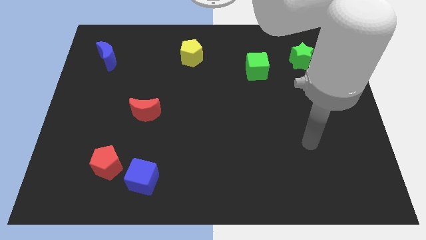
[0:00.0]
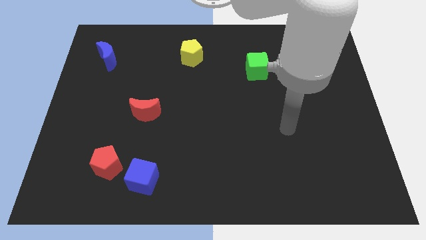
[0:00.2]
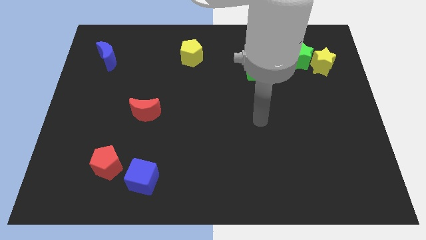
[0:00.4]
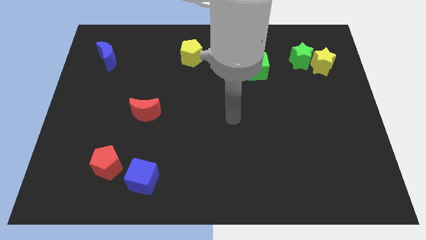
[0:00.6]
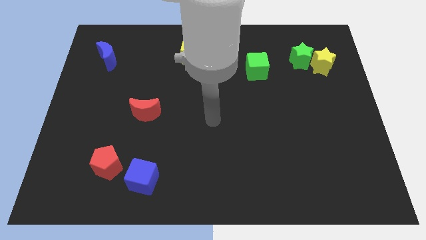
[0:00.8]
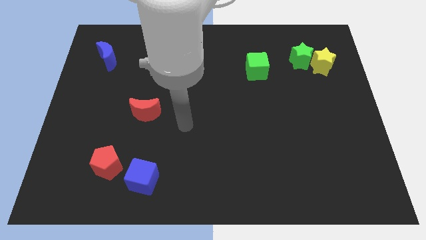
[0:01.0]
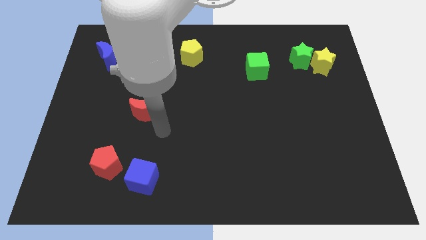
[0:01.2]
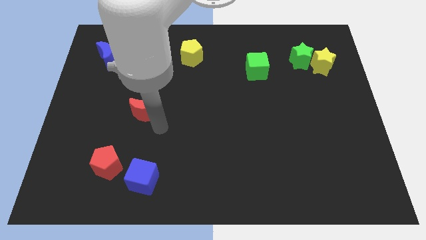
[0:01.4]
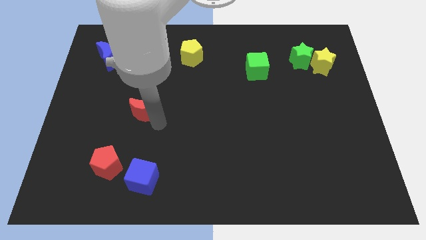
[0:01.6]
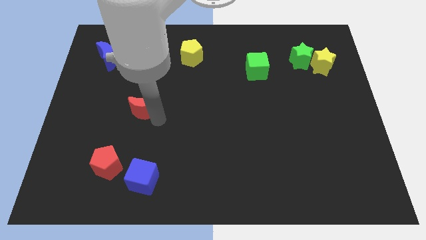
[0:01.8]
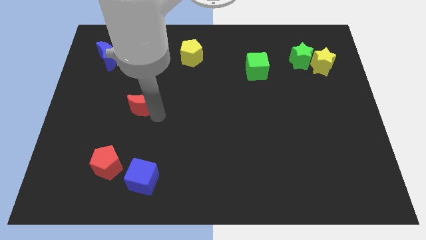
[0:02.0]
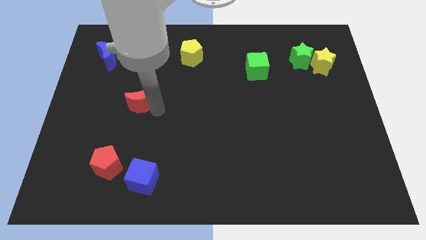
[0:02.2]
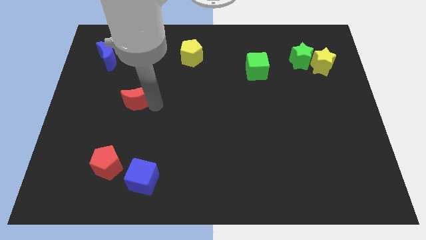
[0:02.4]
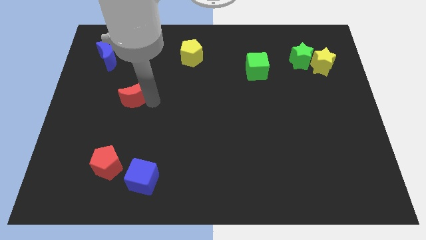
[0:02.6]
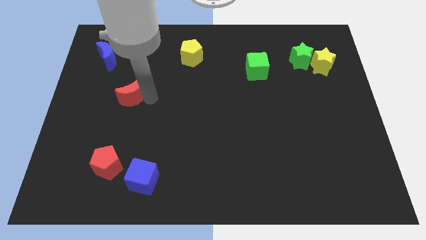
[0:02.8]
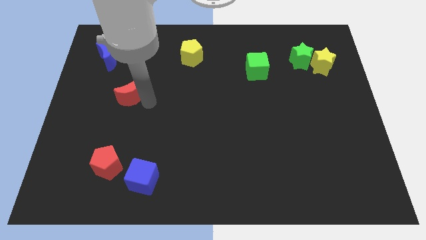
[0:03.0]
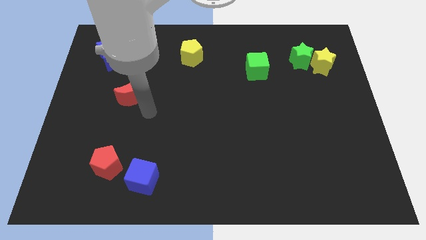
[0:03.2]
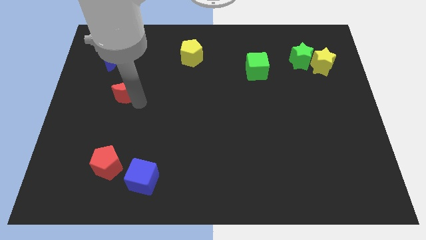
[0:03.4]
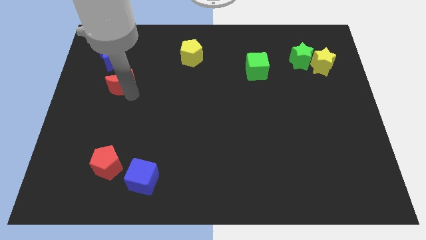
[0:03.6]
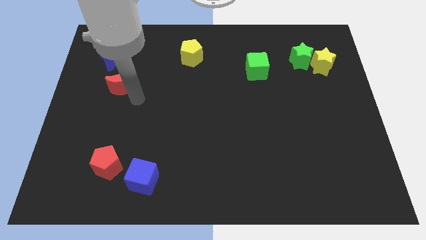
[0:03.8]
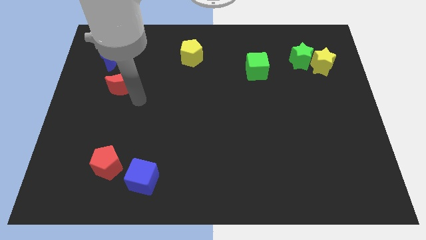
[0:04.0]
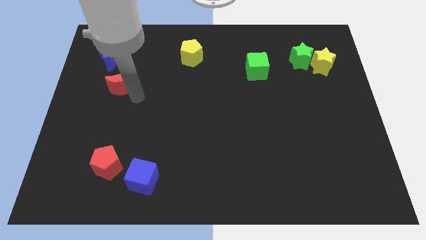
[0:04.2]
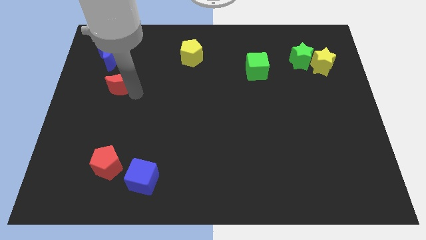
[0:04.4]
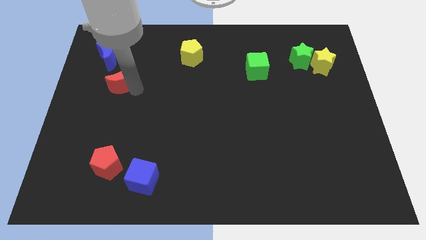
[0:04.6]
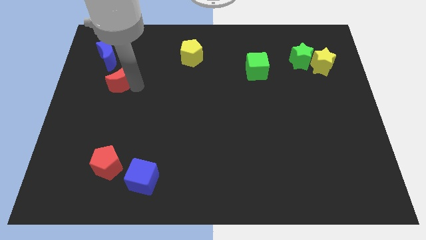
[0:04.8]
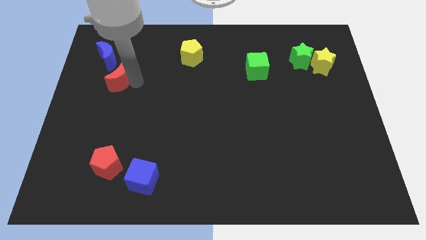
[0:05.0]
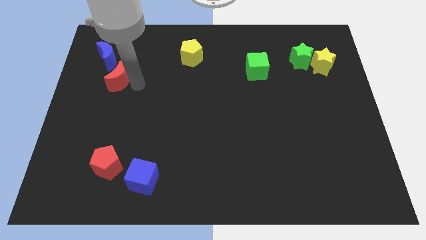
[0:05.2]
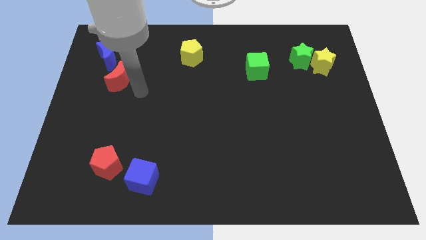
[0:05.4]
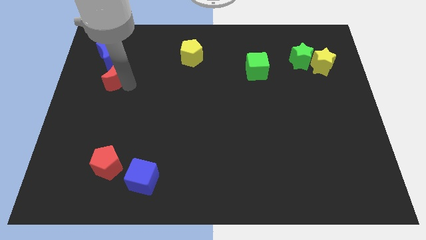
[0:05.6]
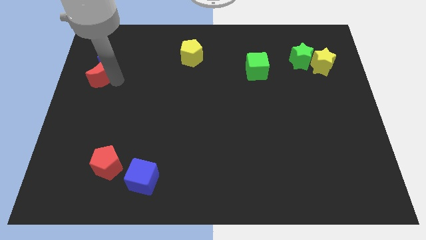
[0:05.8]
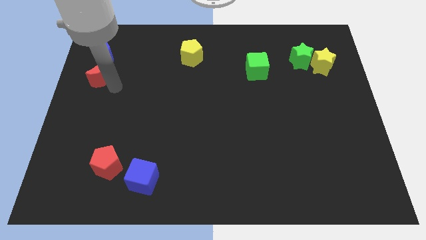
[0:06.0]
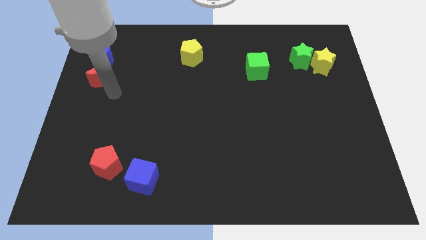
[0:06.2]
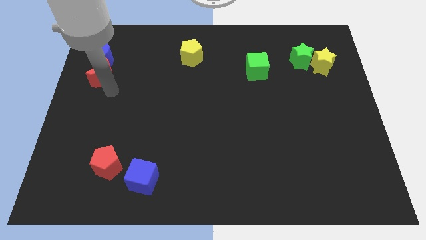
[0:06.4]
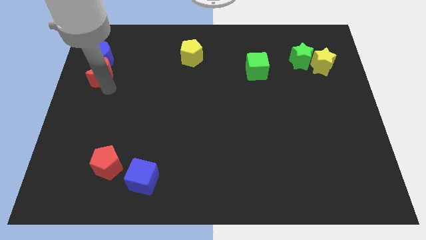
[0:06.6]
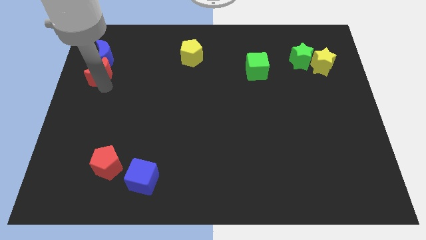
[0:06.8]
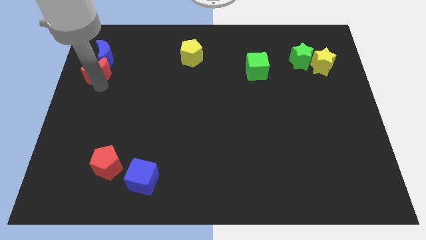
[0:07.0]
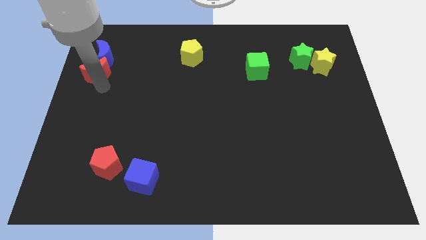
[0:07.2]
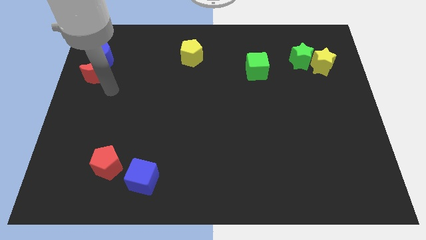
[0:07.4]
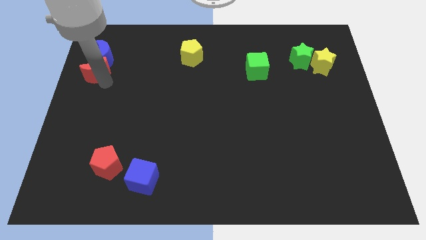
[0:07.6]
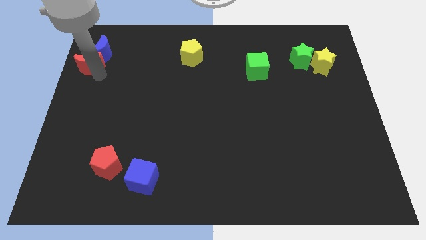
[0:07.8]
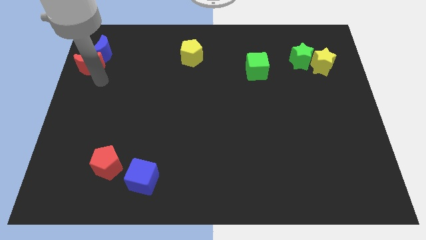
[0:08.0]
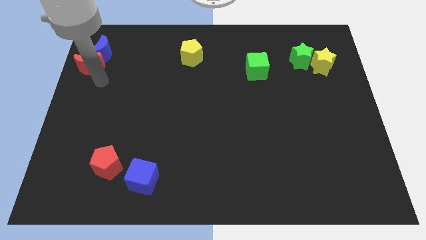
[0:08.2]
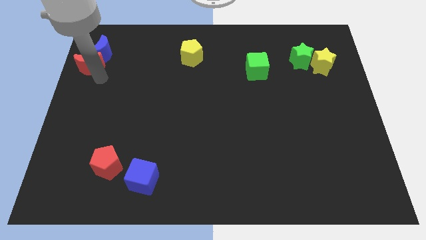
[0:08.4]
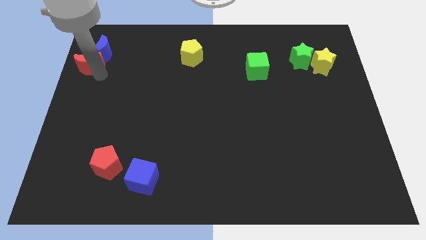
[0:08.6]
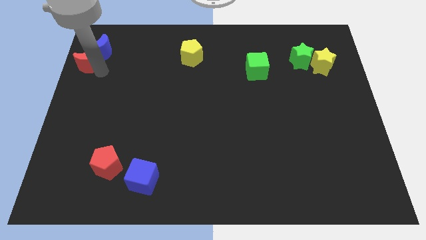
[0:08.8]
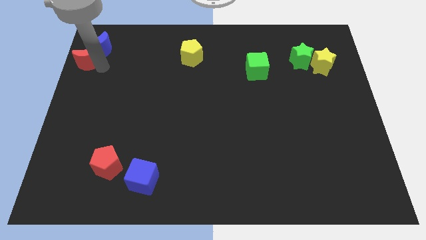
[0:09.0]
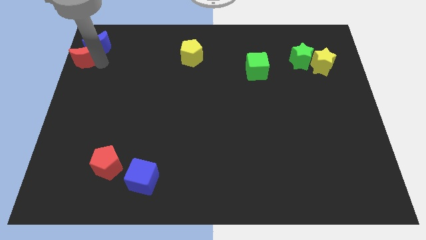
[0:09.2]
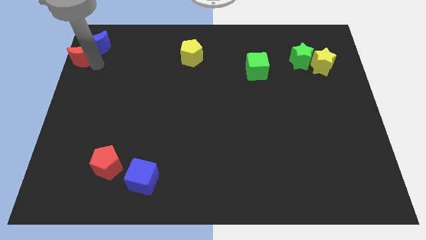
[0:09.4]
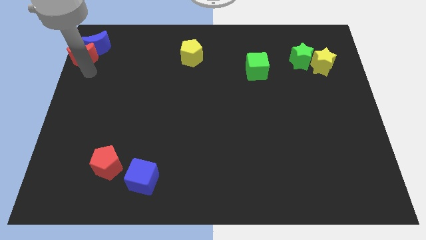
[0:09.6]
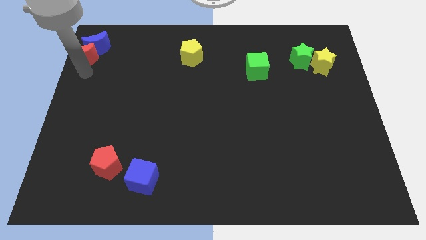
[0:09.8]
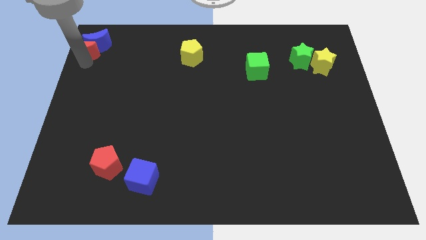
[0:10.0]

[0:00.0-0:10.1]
push the red moon to the upper left corner

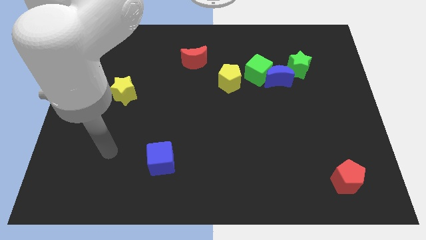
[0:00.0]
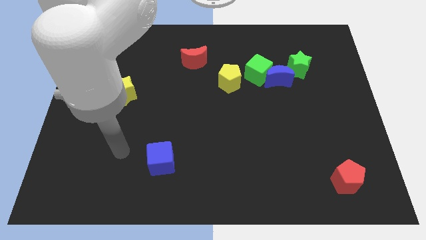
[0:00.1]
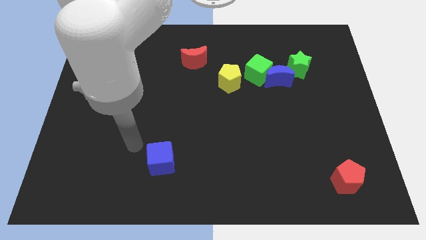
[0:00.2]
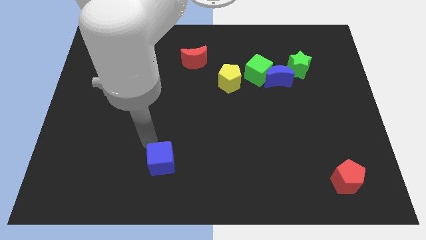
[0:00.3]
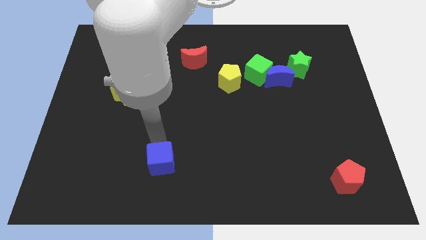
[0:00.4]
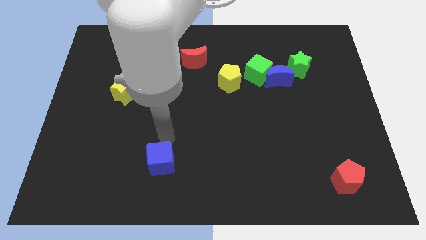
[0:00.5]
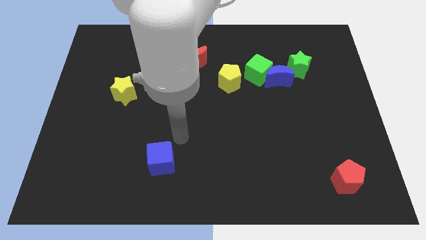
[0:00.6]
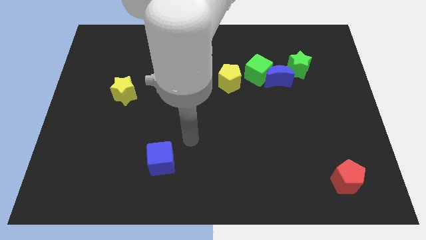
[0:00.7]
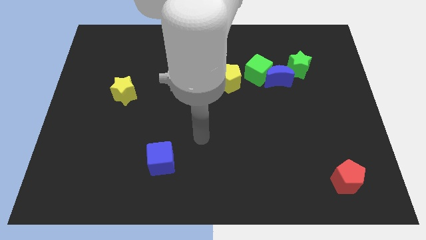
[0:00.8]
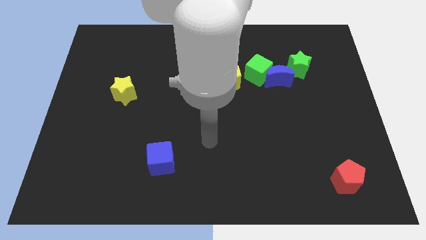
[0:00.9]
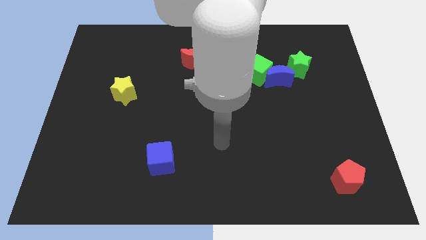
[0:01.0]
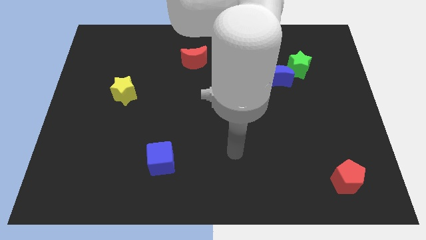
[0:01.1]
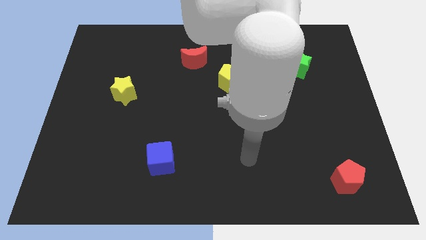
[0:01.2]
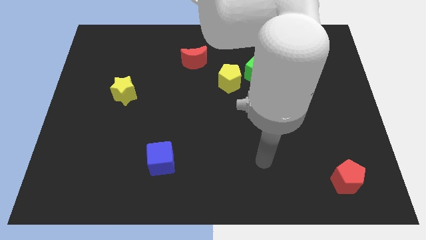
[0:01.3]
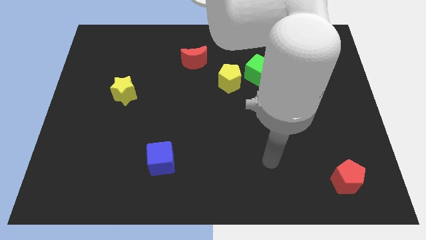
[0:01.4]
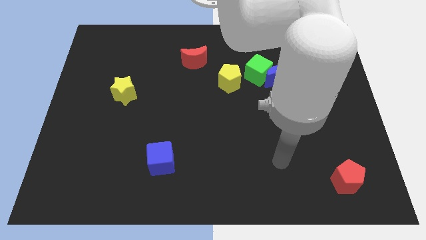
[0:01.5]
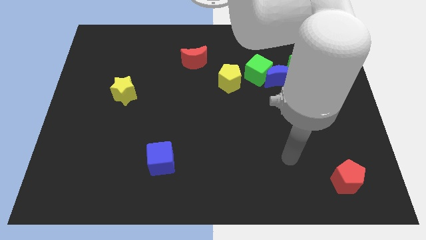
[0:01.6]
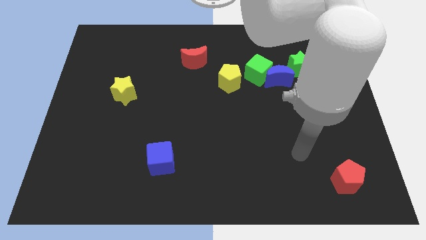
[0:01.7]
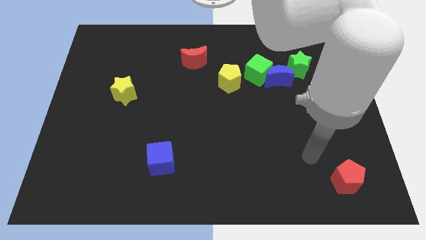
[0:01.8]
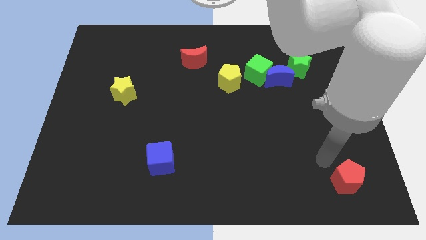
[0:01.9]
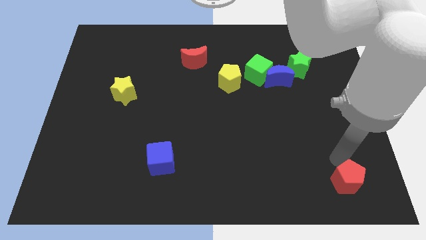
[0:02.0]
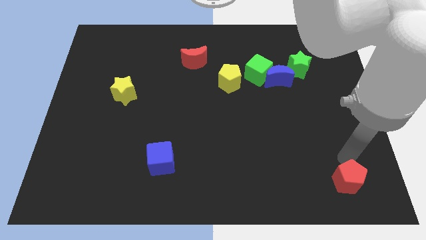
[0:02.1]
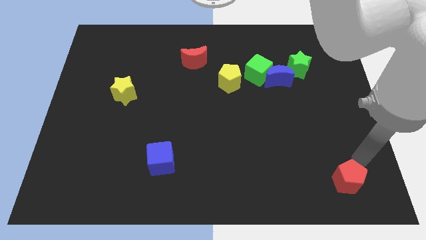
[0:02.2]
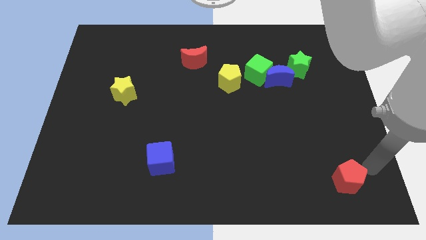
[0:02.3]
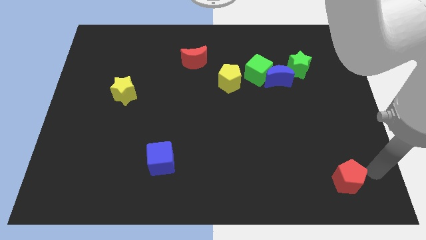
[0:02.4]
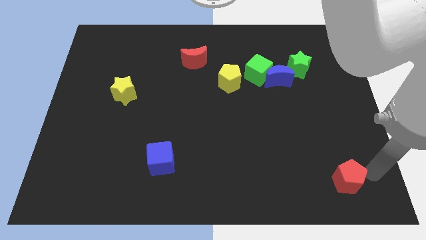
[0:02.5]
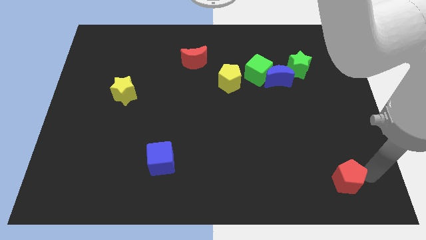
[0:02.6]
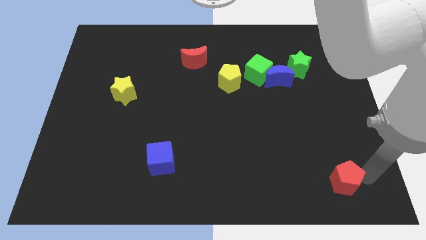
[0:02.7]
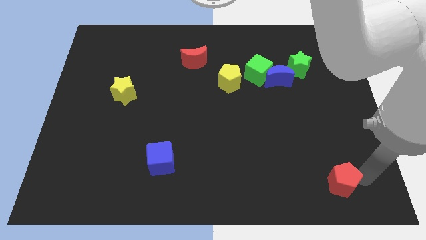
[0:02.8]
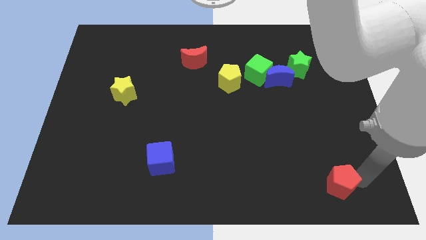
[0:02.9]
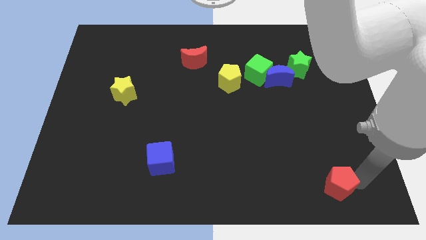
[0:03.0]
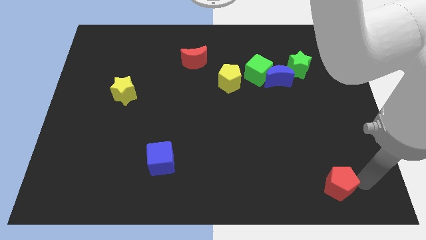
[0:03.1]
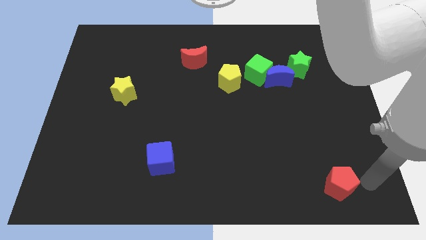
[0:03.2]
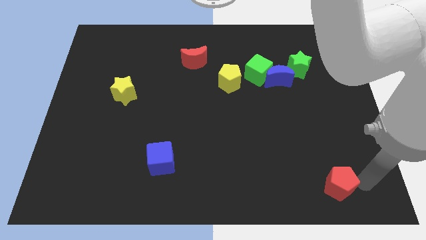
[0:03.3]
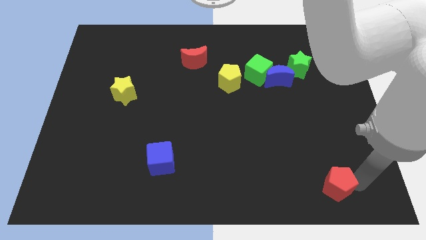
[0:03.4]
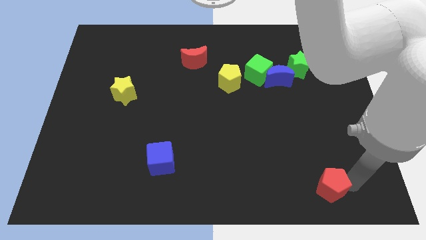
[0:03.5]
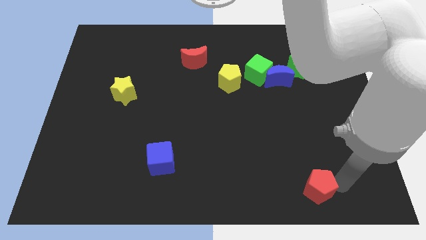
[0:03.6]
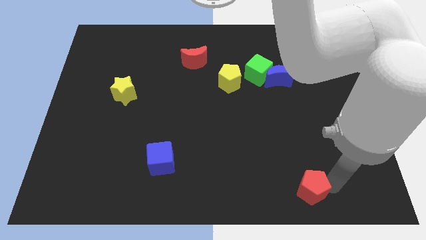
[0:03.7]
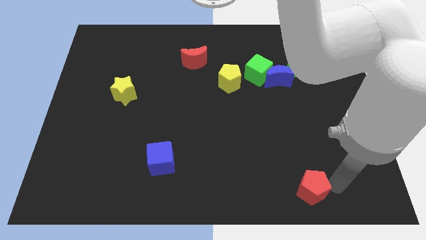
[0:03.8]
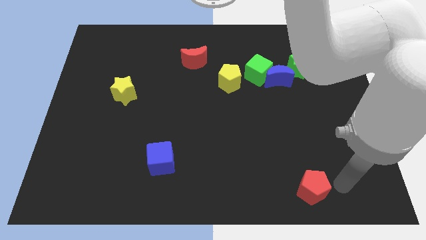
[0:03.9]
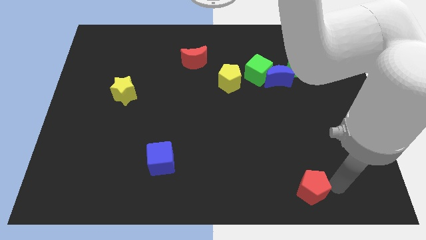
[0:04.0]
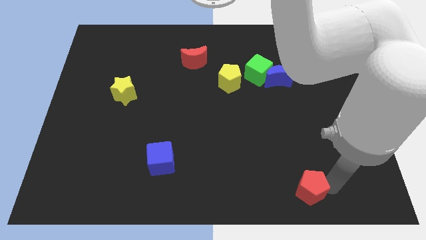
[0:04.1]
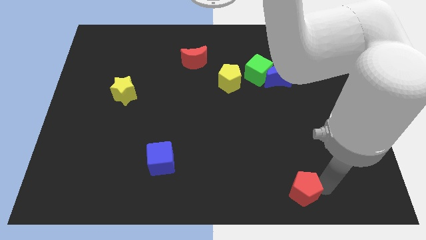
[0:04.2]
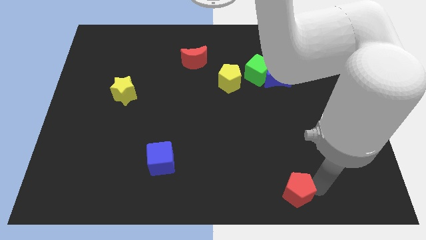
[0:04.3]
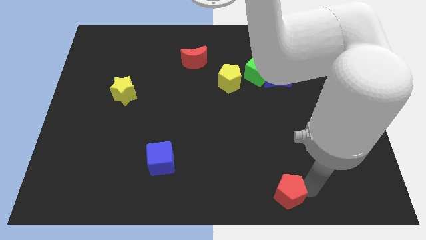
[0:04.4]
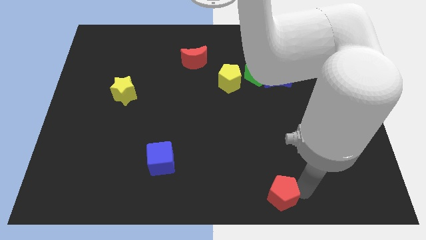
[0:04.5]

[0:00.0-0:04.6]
move the red pentagon to the bottom
